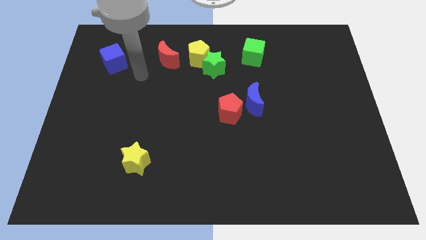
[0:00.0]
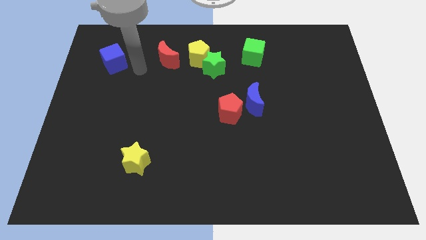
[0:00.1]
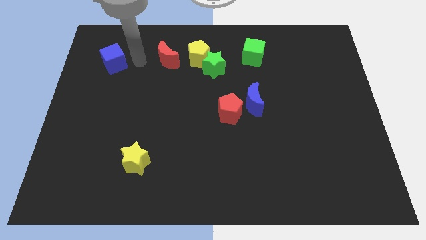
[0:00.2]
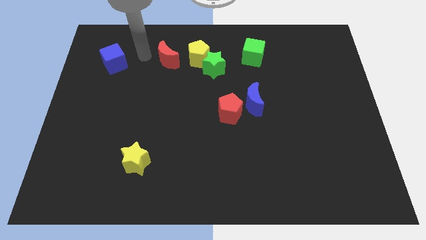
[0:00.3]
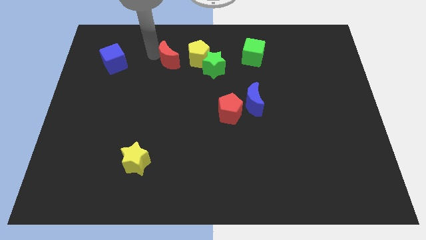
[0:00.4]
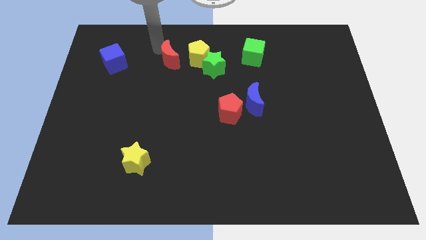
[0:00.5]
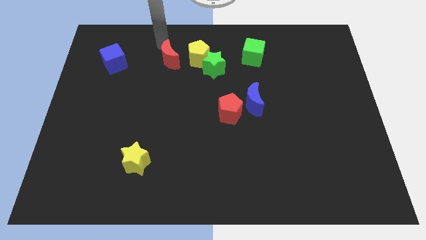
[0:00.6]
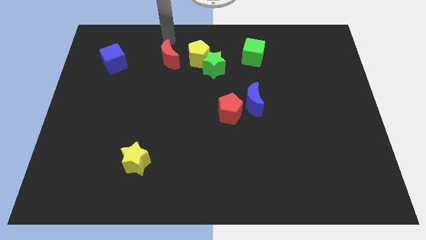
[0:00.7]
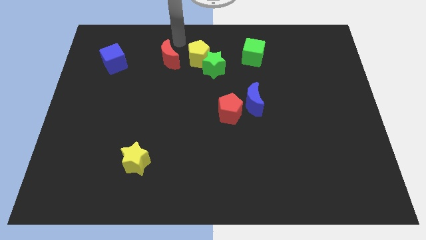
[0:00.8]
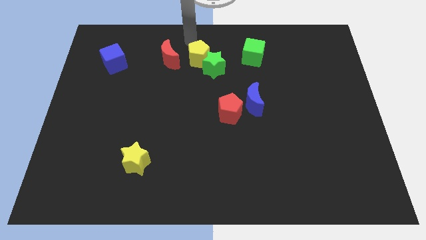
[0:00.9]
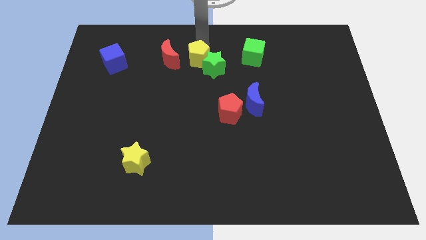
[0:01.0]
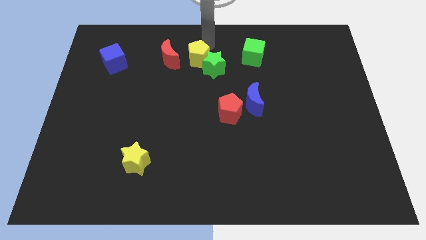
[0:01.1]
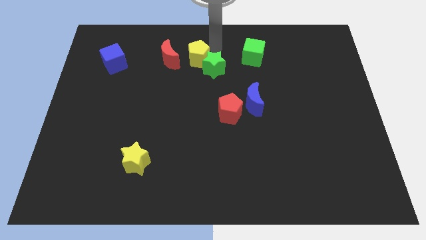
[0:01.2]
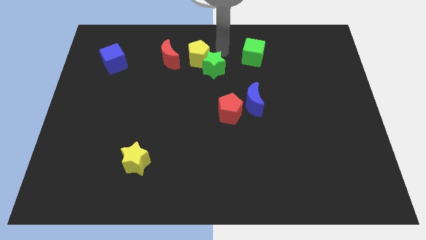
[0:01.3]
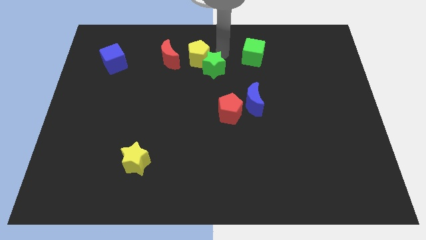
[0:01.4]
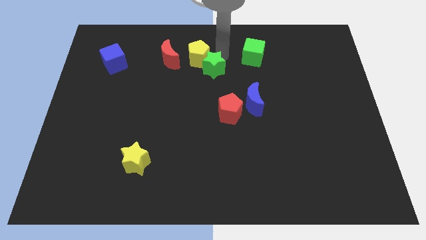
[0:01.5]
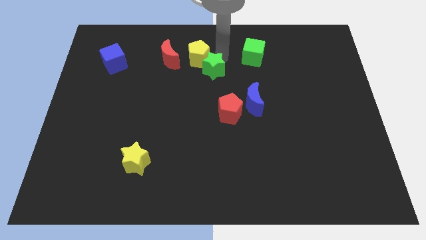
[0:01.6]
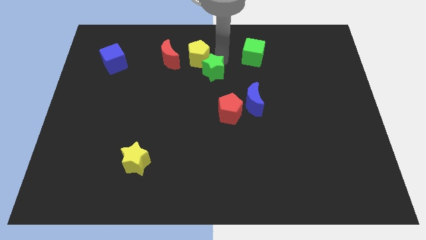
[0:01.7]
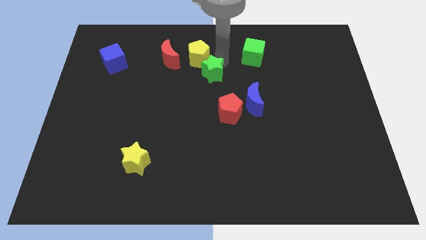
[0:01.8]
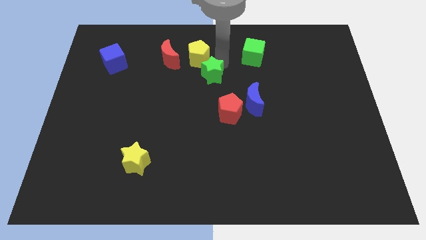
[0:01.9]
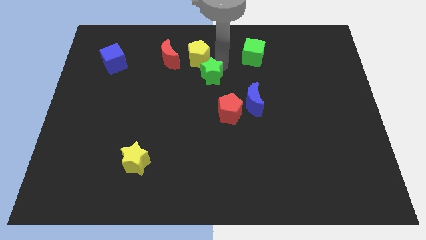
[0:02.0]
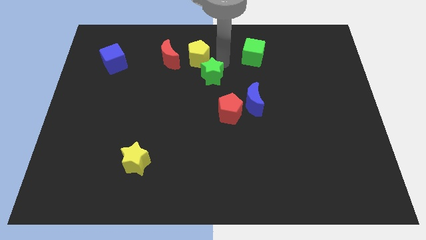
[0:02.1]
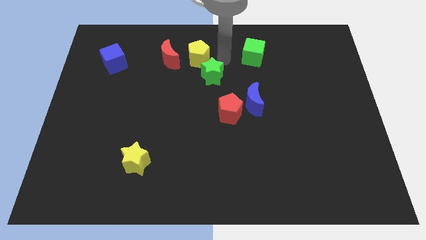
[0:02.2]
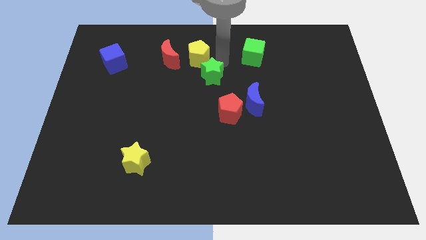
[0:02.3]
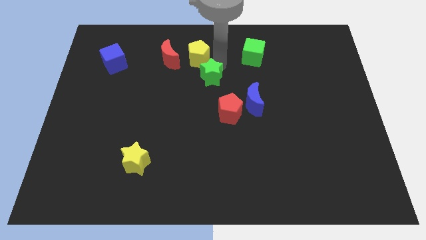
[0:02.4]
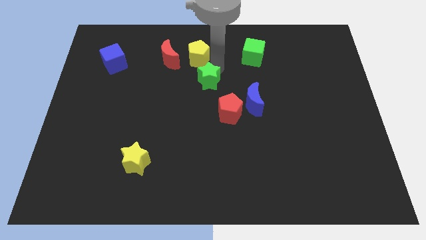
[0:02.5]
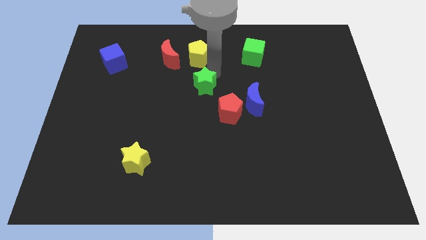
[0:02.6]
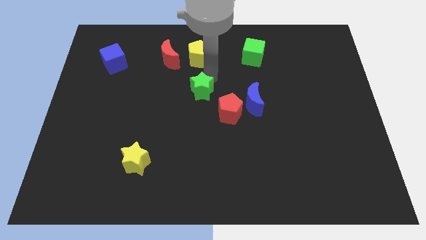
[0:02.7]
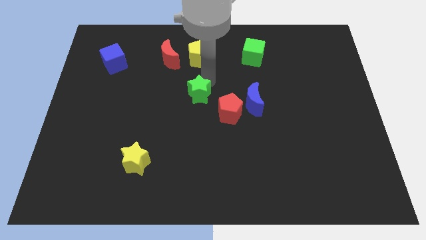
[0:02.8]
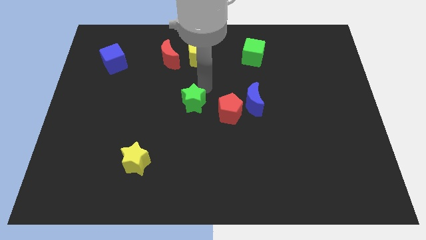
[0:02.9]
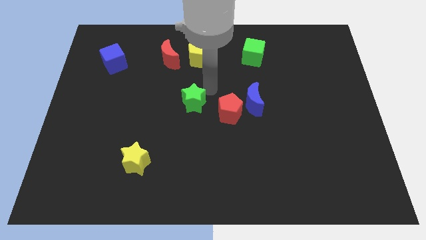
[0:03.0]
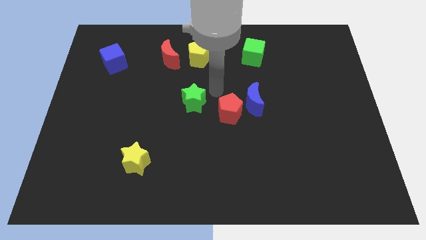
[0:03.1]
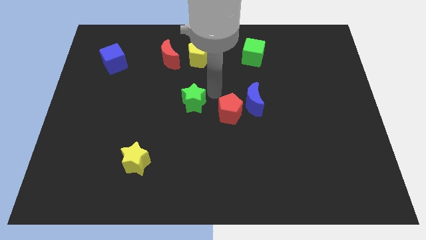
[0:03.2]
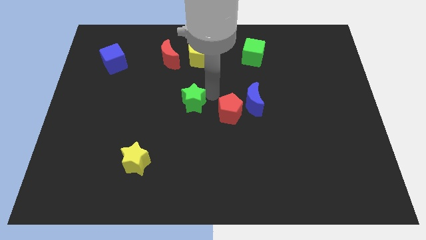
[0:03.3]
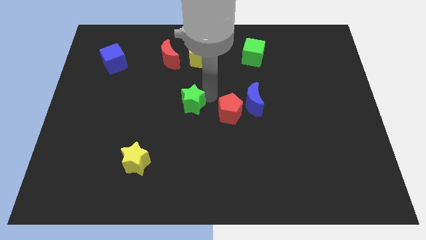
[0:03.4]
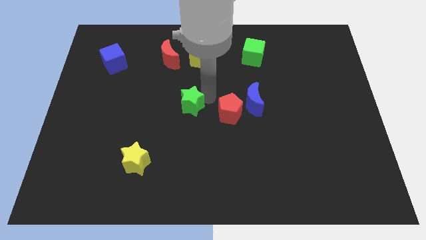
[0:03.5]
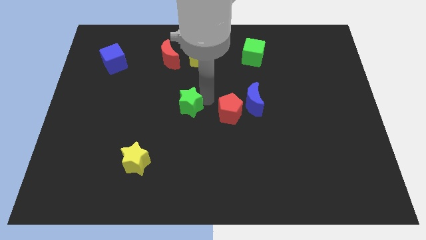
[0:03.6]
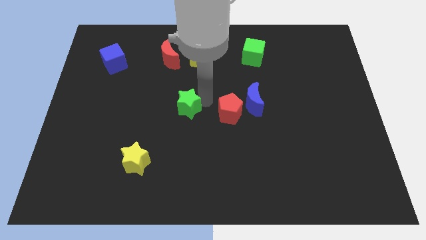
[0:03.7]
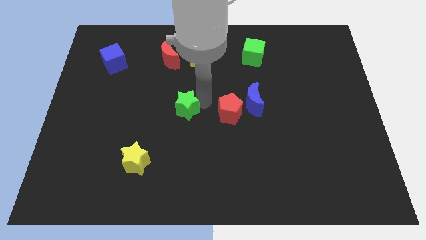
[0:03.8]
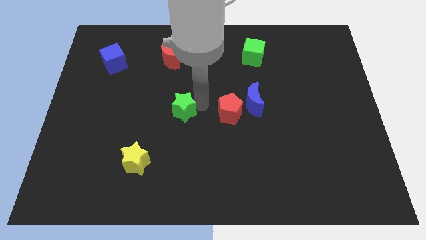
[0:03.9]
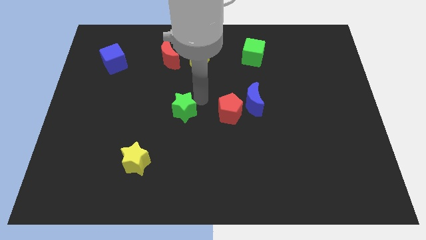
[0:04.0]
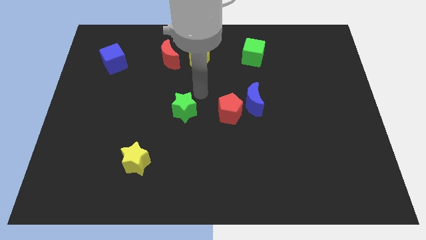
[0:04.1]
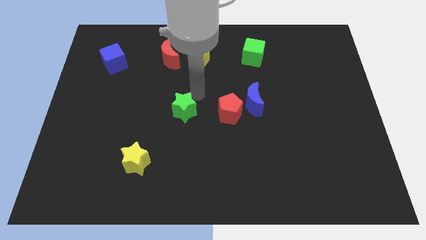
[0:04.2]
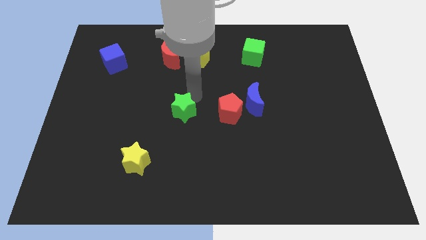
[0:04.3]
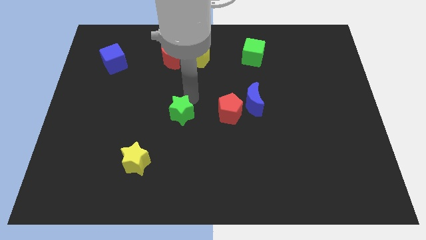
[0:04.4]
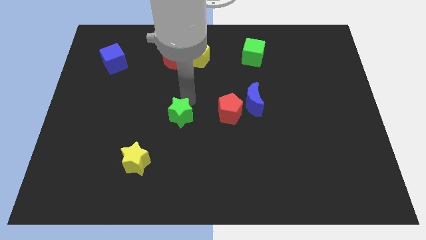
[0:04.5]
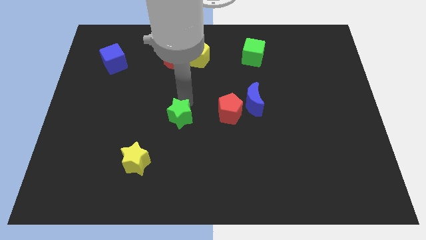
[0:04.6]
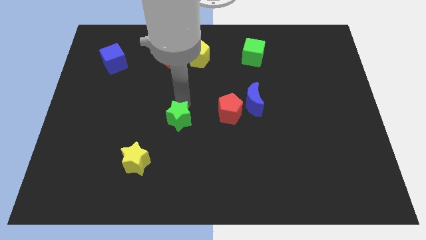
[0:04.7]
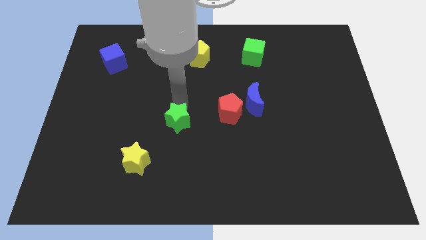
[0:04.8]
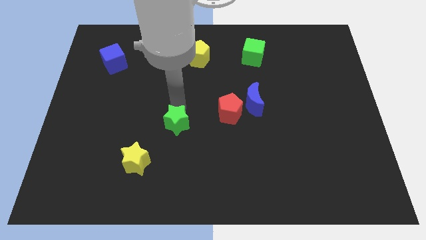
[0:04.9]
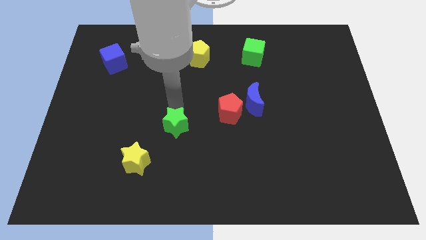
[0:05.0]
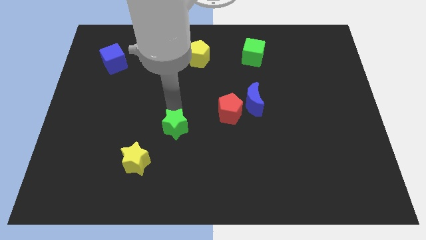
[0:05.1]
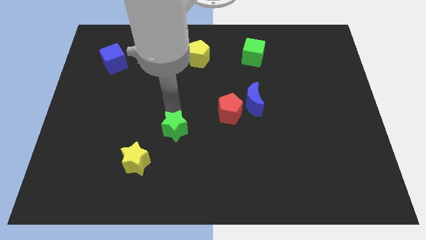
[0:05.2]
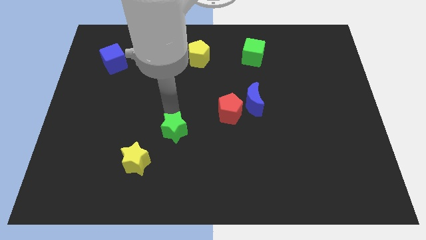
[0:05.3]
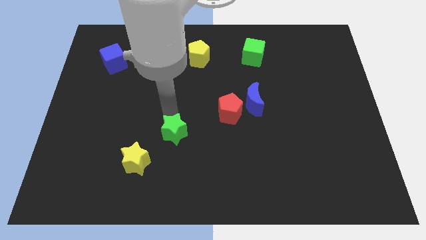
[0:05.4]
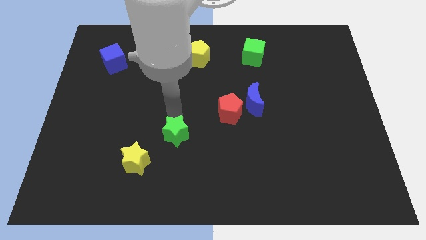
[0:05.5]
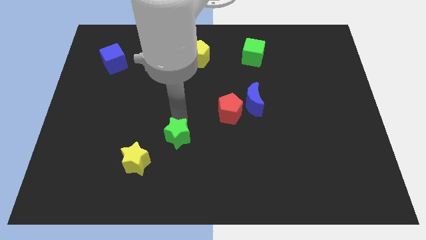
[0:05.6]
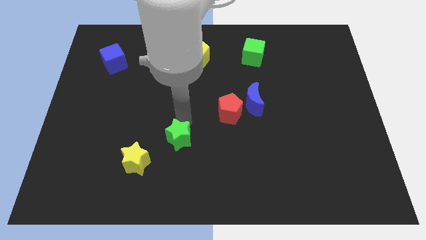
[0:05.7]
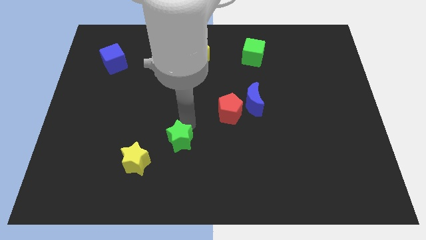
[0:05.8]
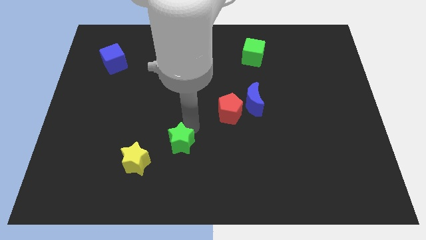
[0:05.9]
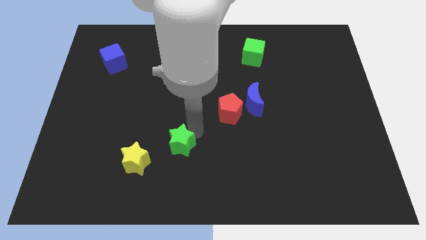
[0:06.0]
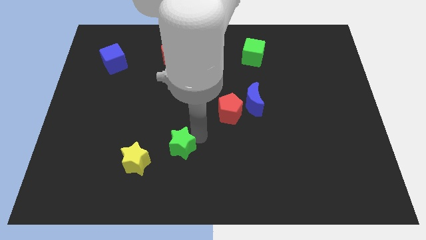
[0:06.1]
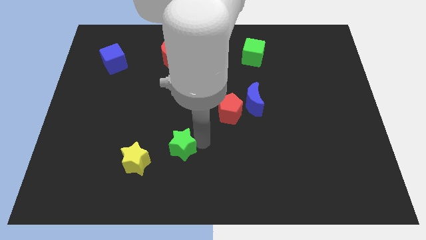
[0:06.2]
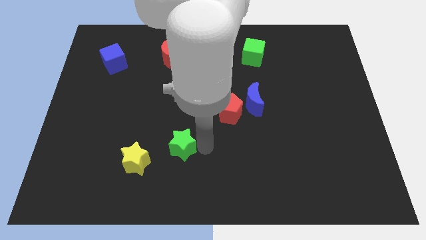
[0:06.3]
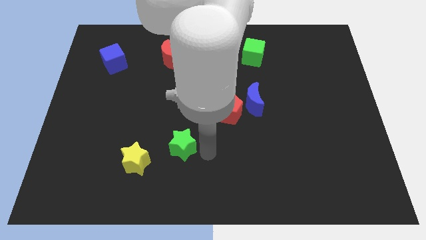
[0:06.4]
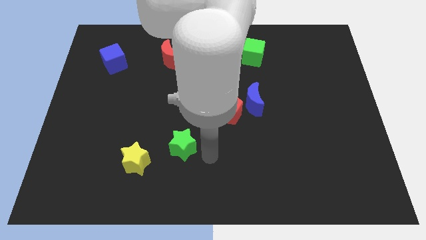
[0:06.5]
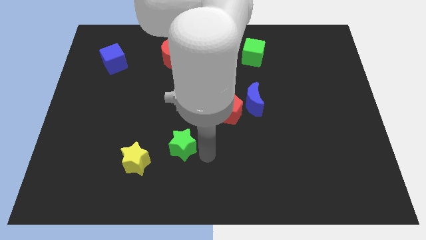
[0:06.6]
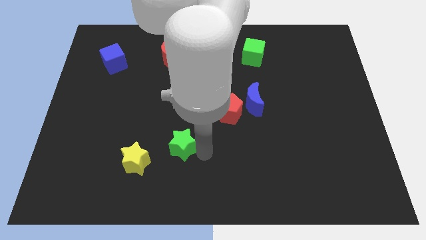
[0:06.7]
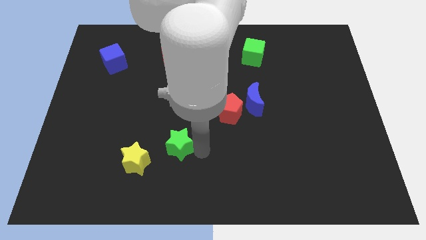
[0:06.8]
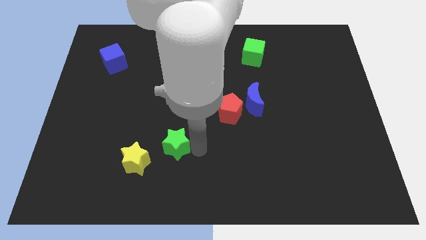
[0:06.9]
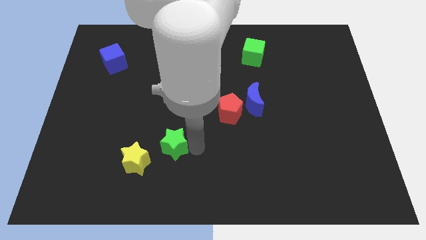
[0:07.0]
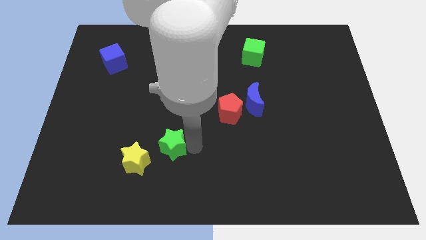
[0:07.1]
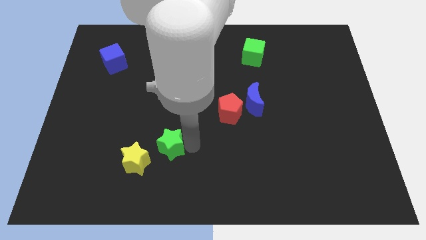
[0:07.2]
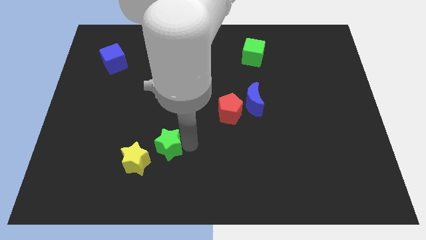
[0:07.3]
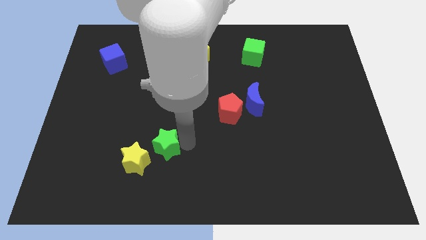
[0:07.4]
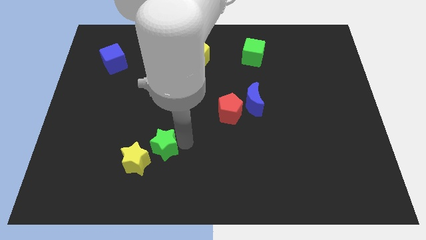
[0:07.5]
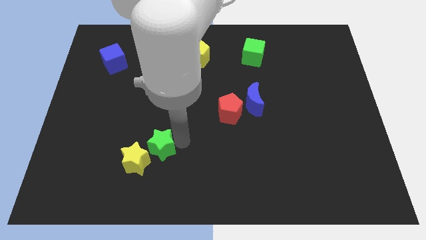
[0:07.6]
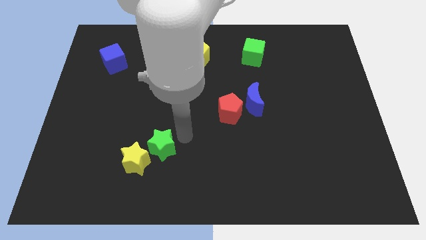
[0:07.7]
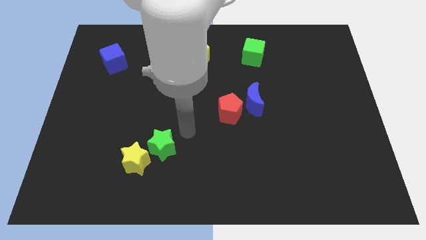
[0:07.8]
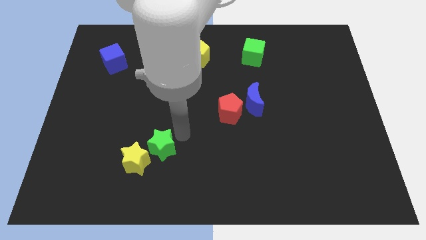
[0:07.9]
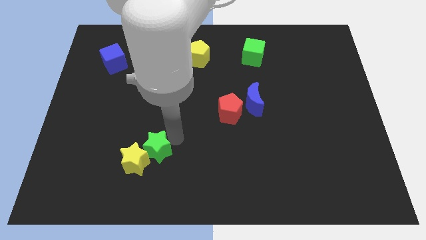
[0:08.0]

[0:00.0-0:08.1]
push the green star towards the yellow star

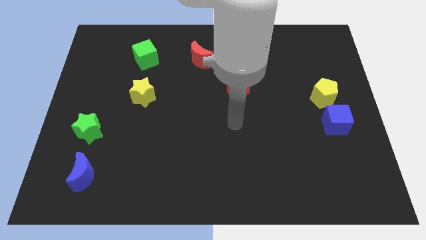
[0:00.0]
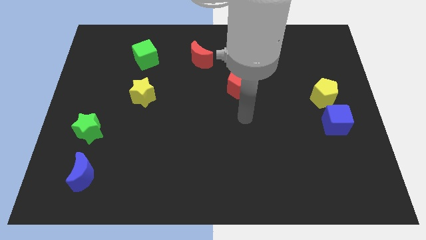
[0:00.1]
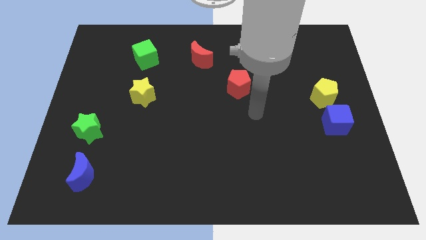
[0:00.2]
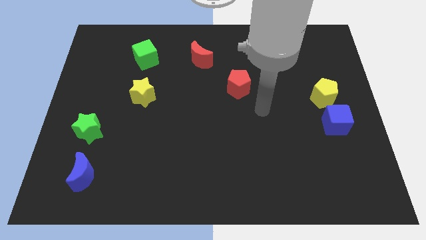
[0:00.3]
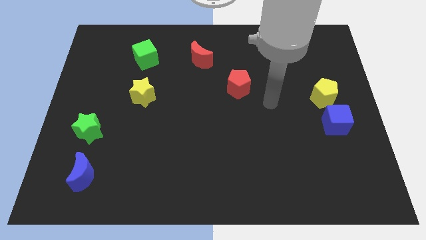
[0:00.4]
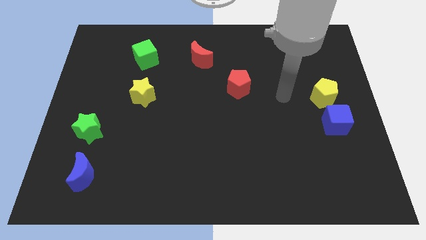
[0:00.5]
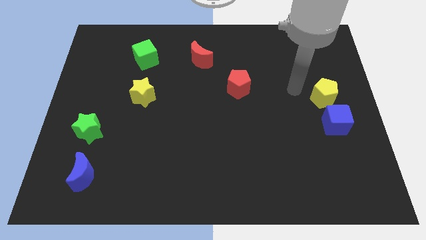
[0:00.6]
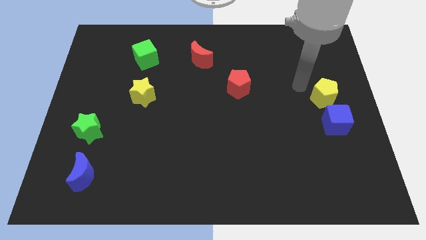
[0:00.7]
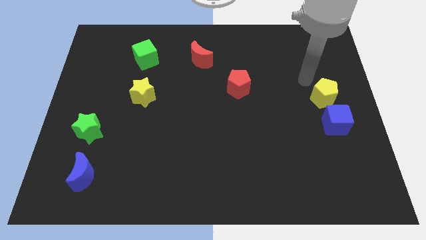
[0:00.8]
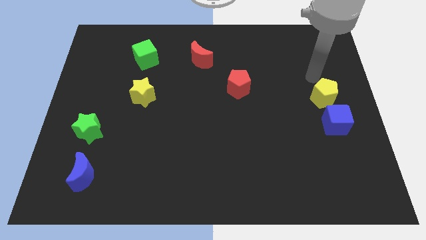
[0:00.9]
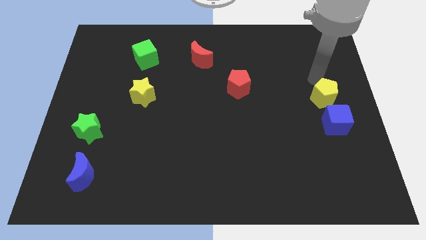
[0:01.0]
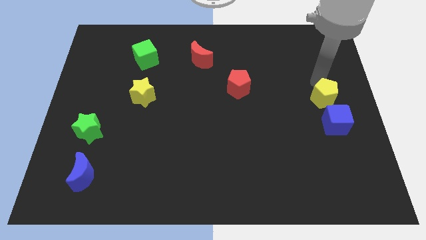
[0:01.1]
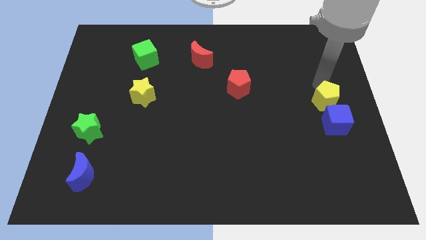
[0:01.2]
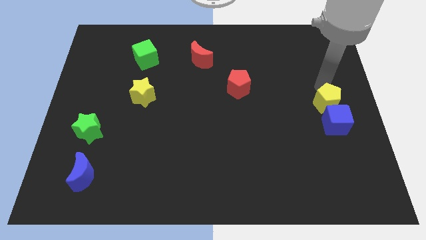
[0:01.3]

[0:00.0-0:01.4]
move the yellow pentagon close to the blue cube
